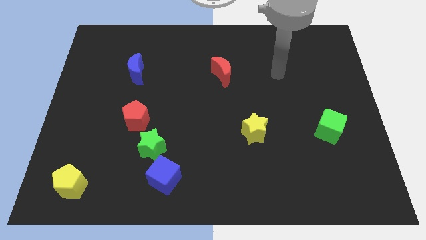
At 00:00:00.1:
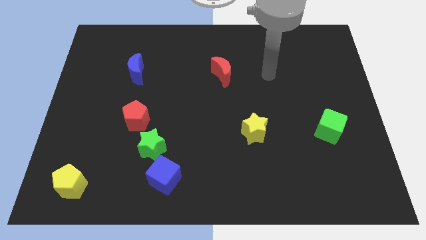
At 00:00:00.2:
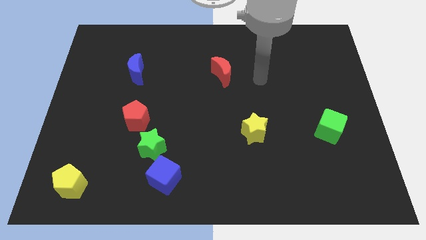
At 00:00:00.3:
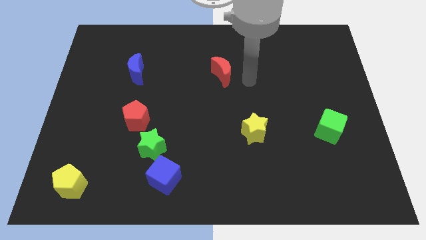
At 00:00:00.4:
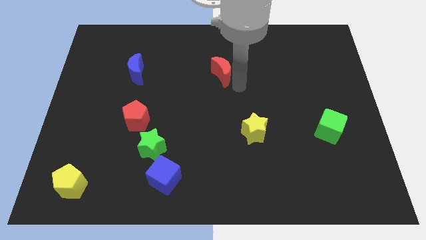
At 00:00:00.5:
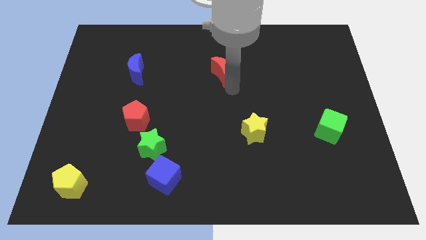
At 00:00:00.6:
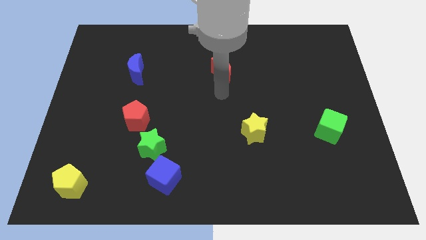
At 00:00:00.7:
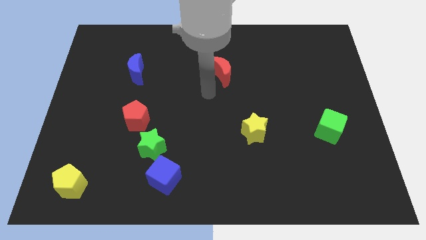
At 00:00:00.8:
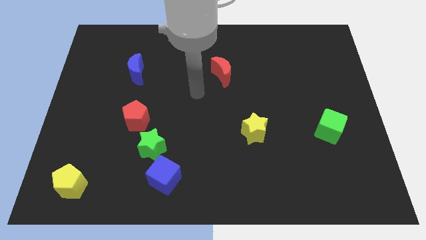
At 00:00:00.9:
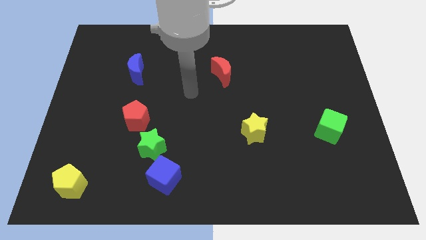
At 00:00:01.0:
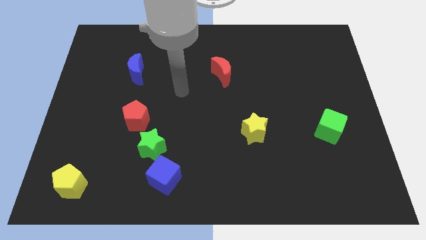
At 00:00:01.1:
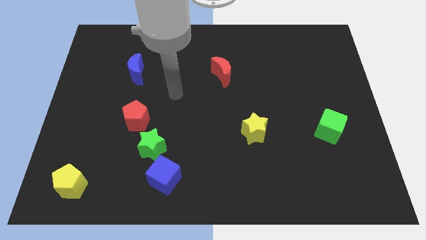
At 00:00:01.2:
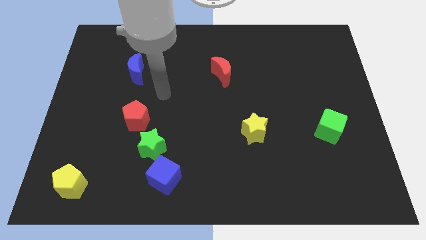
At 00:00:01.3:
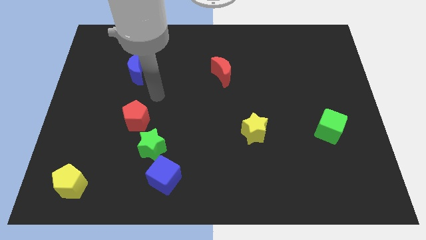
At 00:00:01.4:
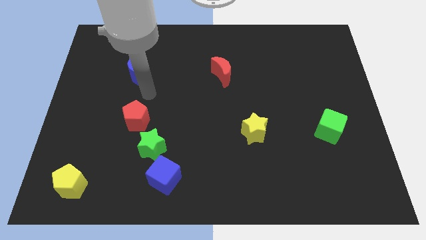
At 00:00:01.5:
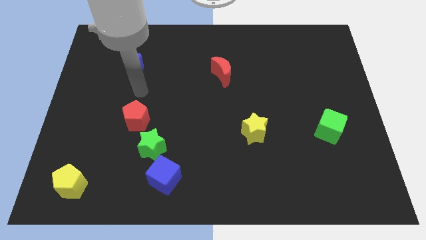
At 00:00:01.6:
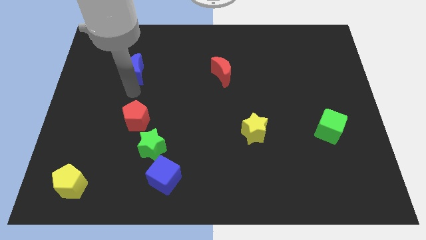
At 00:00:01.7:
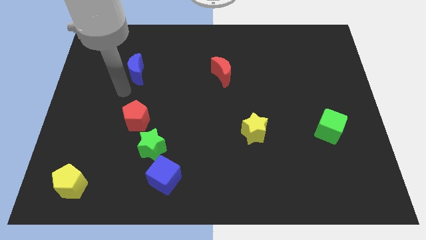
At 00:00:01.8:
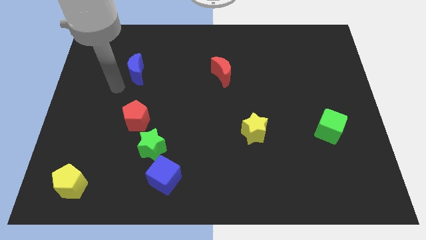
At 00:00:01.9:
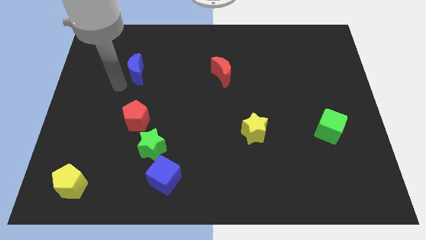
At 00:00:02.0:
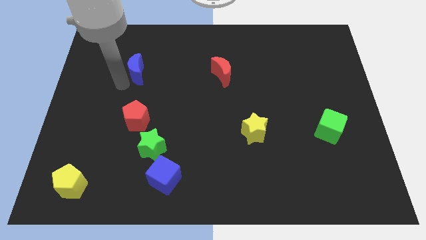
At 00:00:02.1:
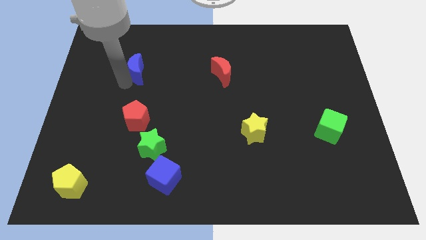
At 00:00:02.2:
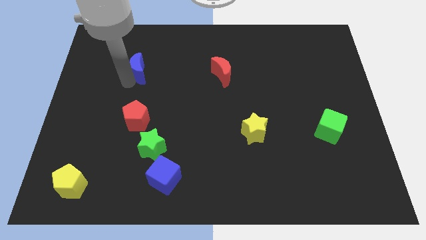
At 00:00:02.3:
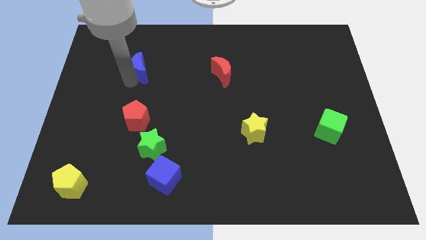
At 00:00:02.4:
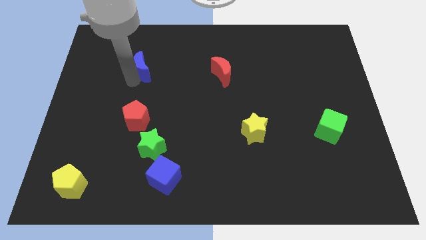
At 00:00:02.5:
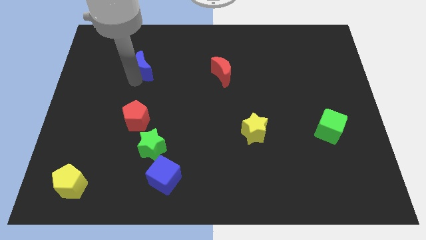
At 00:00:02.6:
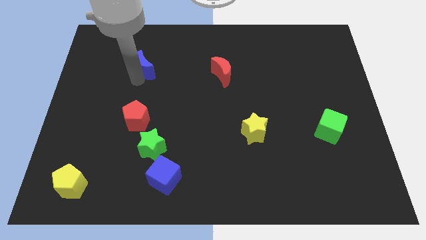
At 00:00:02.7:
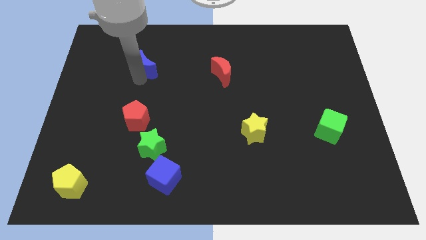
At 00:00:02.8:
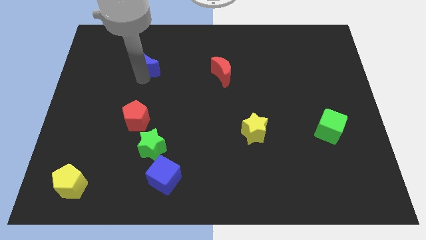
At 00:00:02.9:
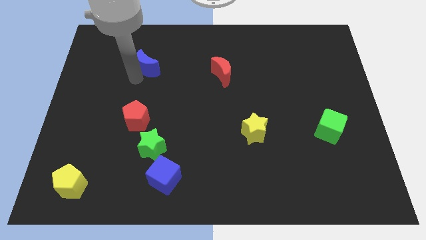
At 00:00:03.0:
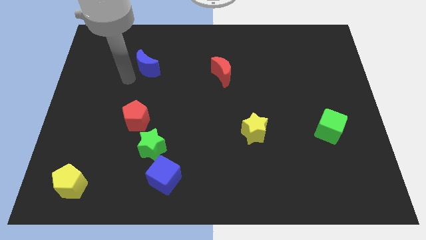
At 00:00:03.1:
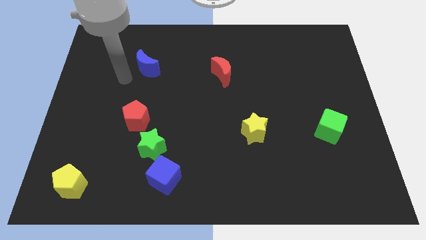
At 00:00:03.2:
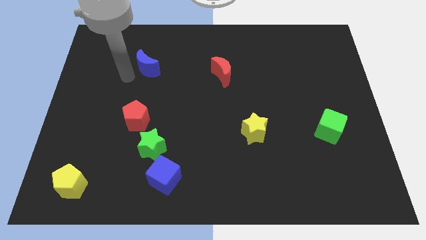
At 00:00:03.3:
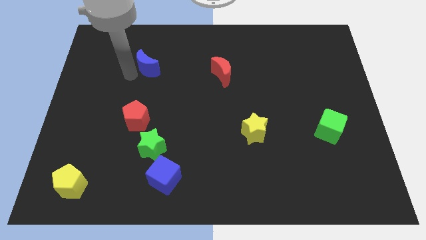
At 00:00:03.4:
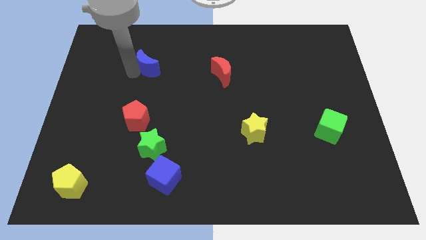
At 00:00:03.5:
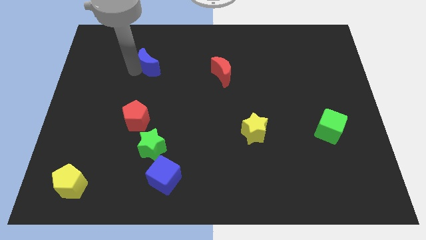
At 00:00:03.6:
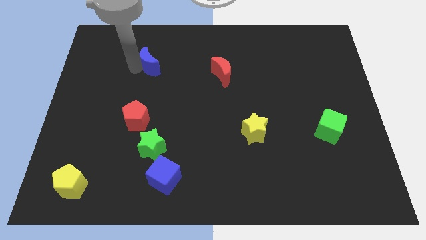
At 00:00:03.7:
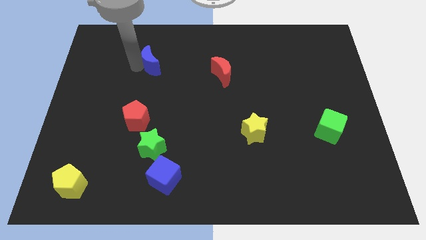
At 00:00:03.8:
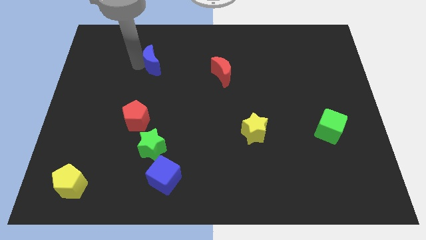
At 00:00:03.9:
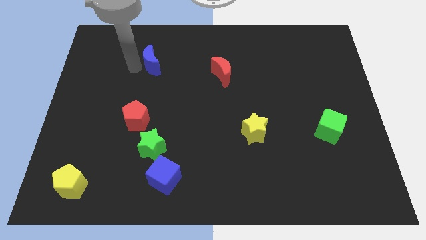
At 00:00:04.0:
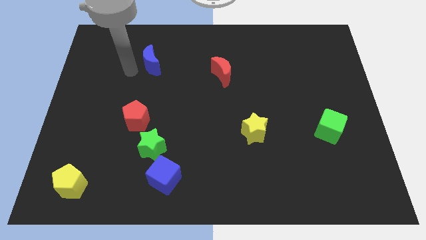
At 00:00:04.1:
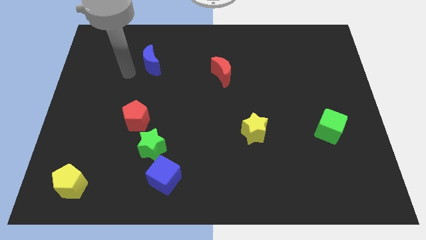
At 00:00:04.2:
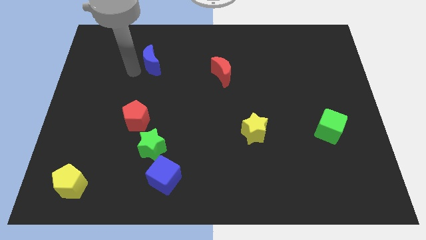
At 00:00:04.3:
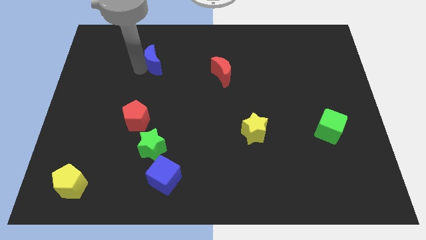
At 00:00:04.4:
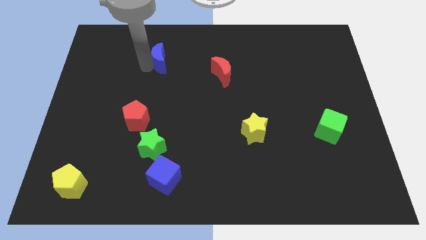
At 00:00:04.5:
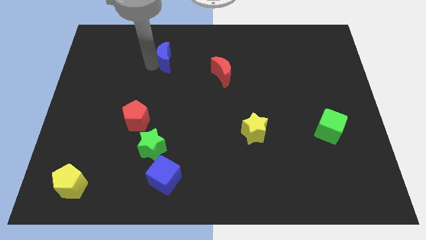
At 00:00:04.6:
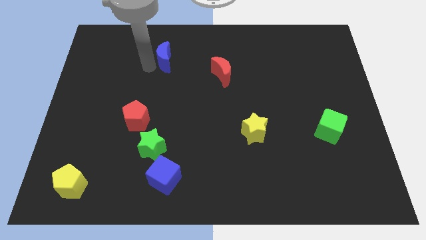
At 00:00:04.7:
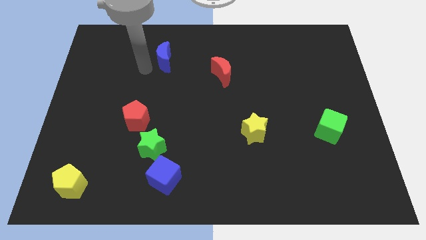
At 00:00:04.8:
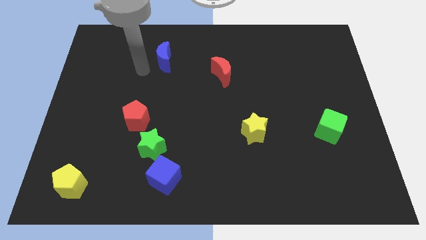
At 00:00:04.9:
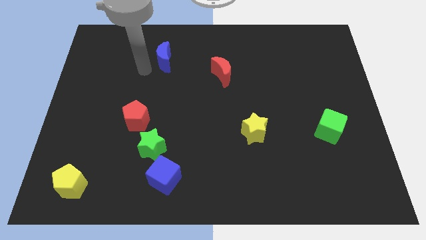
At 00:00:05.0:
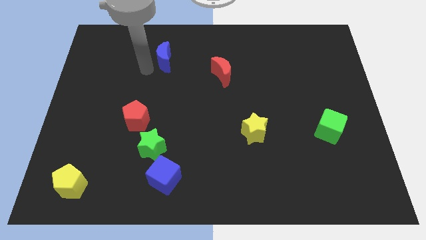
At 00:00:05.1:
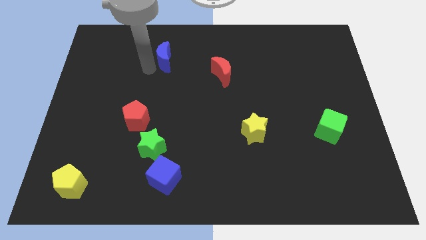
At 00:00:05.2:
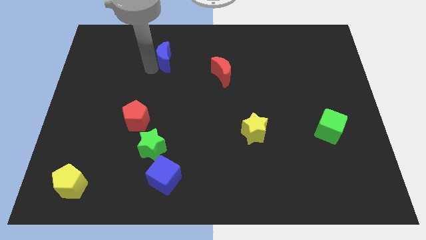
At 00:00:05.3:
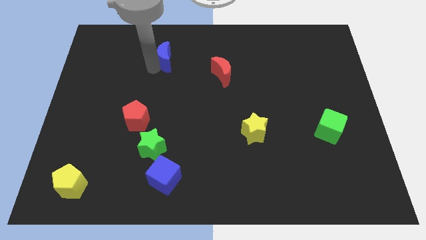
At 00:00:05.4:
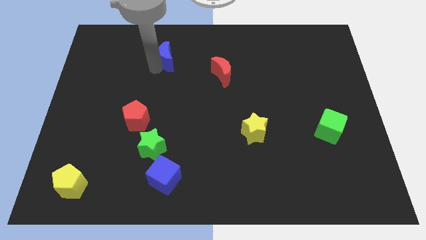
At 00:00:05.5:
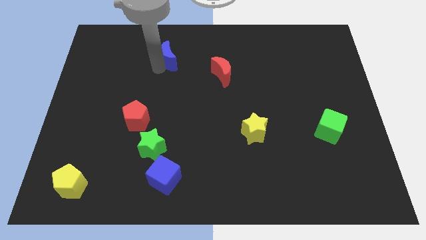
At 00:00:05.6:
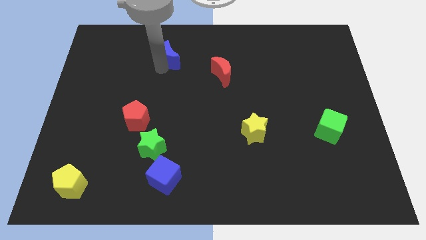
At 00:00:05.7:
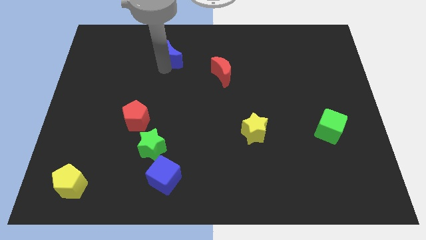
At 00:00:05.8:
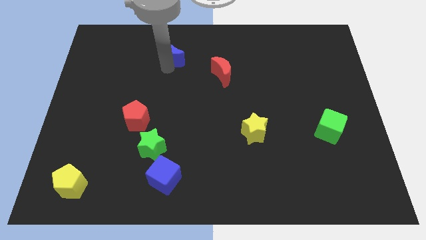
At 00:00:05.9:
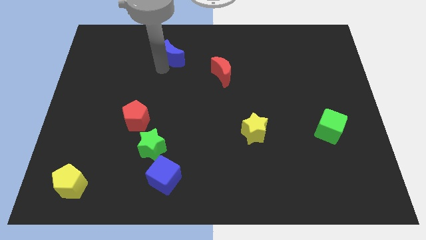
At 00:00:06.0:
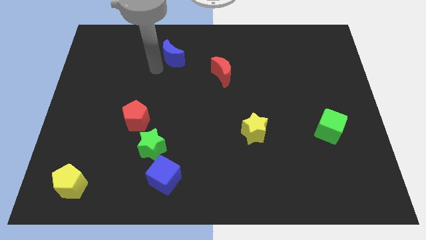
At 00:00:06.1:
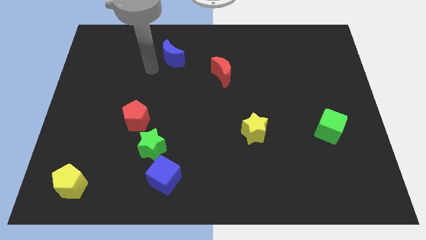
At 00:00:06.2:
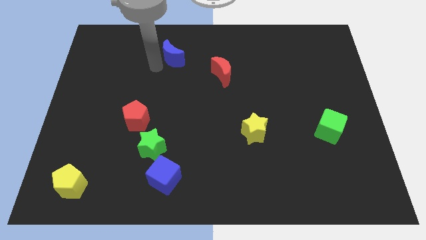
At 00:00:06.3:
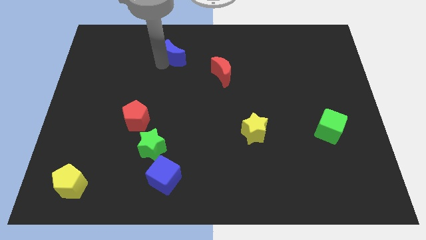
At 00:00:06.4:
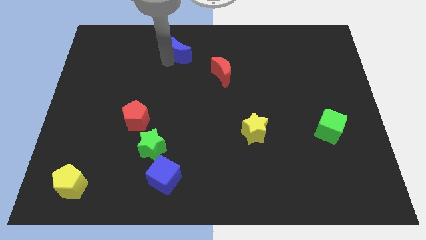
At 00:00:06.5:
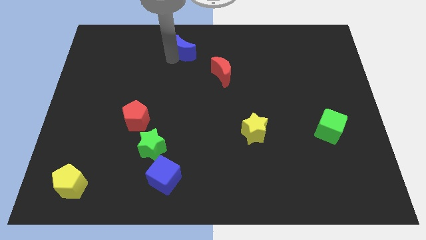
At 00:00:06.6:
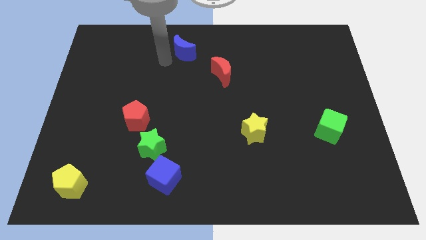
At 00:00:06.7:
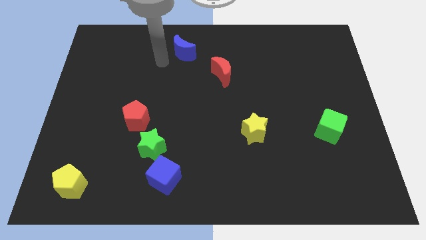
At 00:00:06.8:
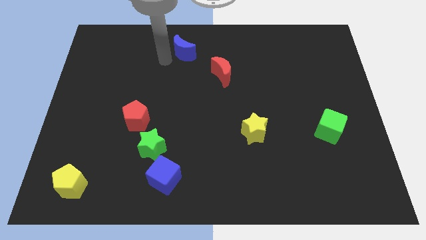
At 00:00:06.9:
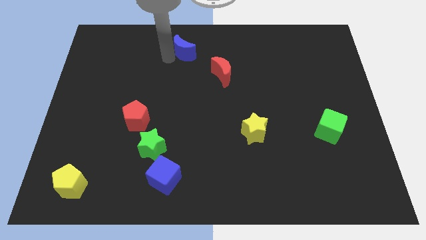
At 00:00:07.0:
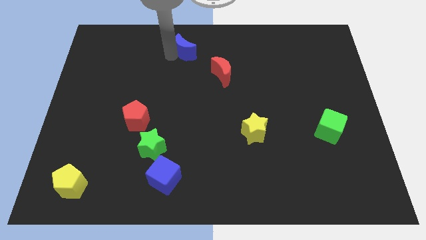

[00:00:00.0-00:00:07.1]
move the blue moon to the top side
